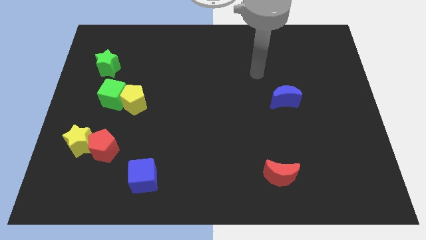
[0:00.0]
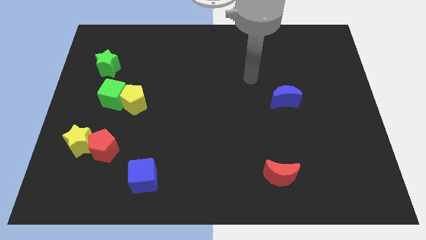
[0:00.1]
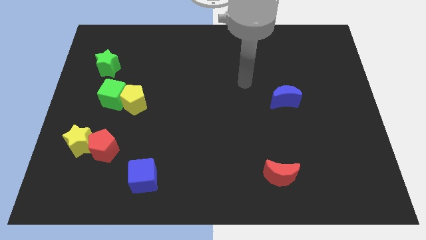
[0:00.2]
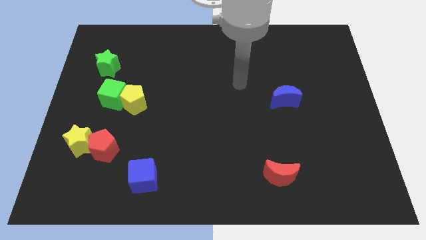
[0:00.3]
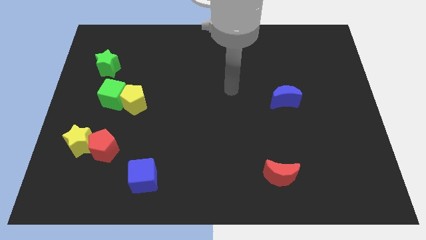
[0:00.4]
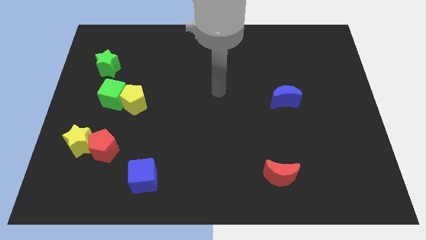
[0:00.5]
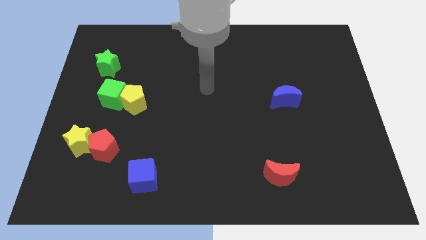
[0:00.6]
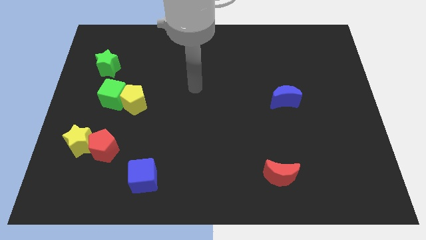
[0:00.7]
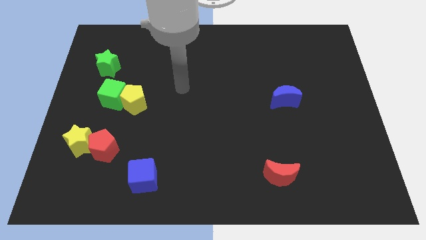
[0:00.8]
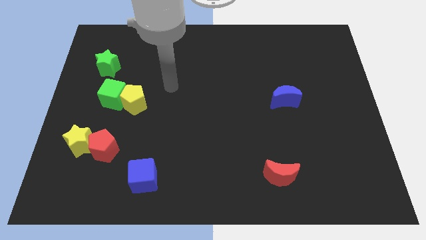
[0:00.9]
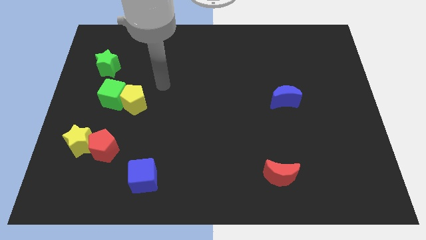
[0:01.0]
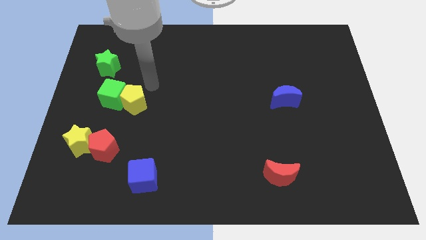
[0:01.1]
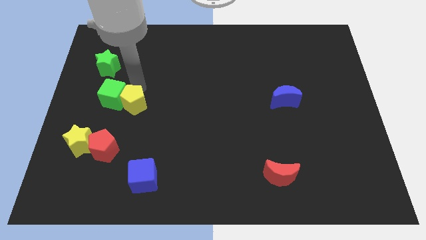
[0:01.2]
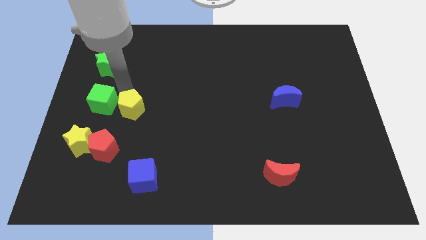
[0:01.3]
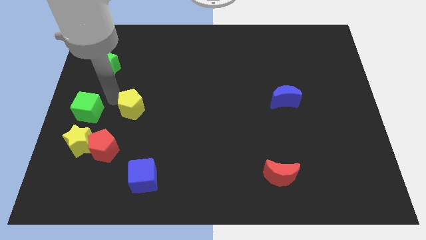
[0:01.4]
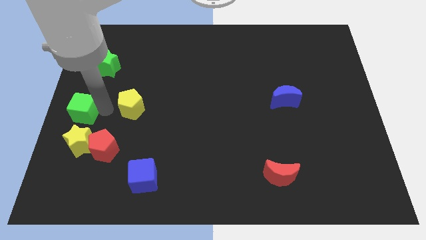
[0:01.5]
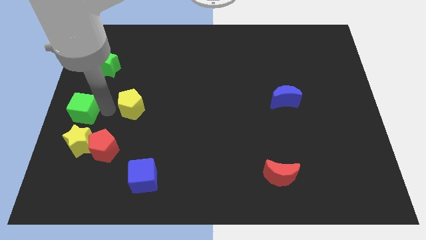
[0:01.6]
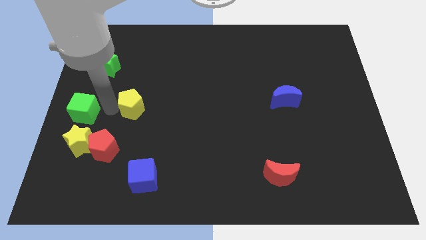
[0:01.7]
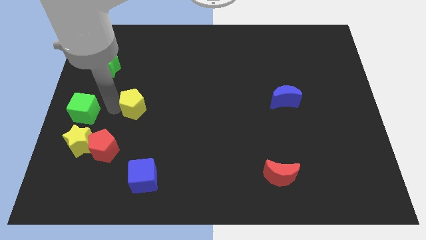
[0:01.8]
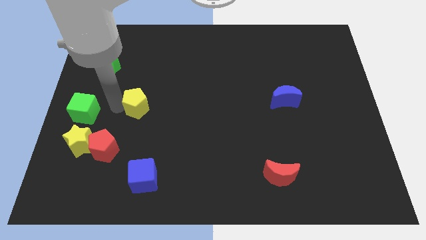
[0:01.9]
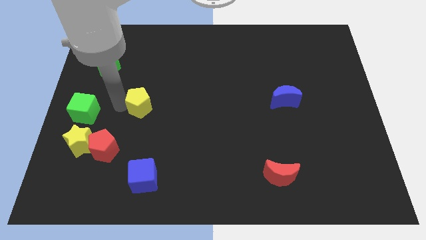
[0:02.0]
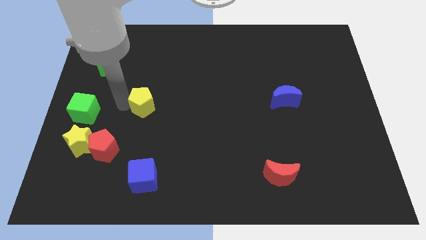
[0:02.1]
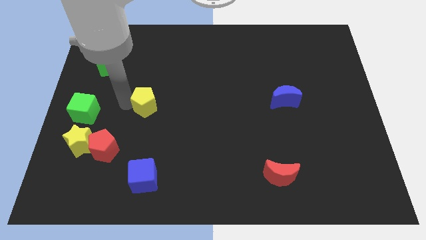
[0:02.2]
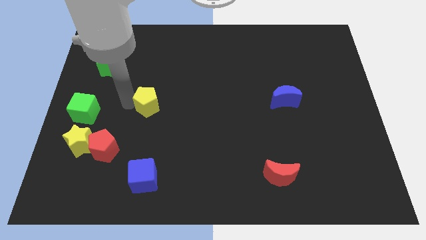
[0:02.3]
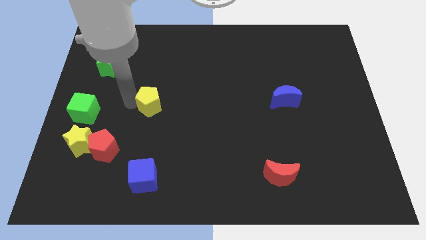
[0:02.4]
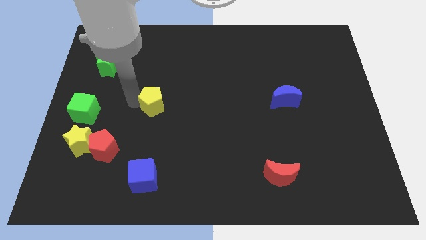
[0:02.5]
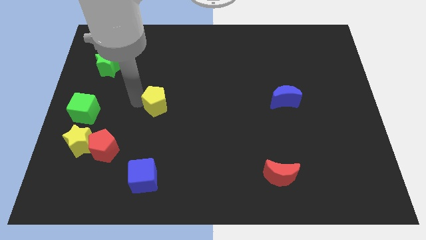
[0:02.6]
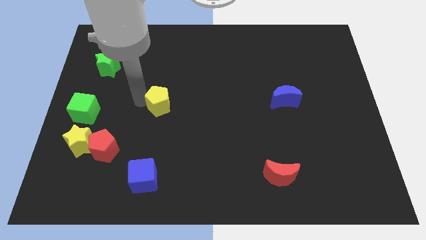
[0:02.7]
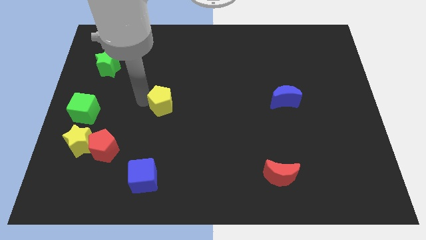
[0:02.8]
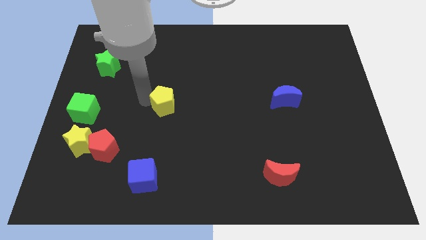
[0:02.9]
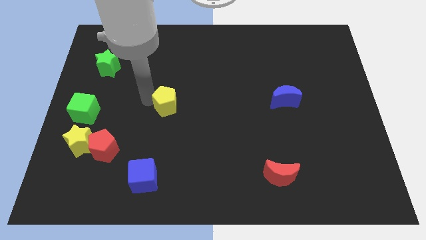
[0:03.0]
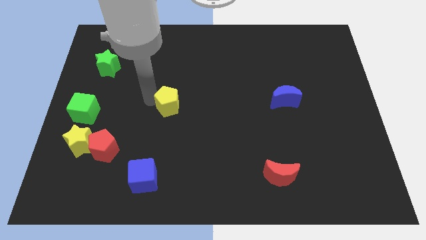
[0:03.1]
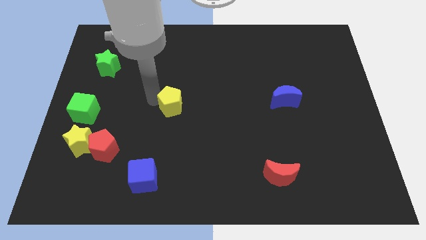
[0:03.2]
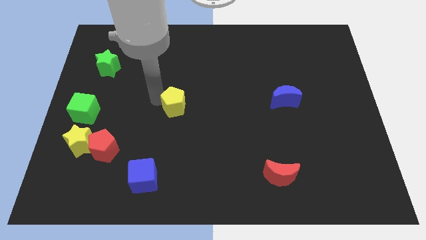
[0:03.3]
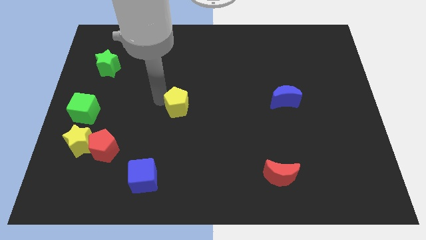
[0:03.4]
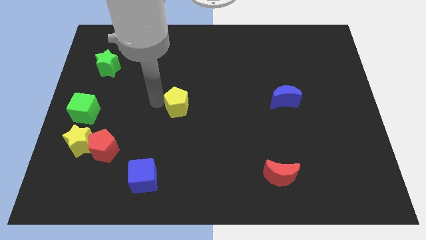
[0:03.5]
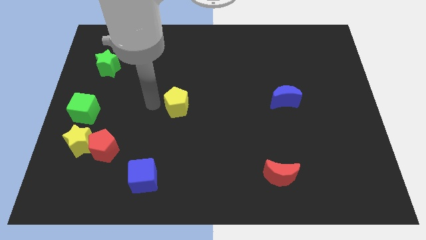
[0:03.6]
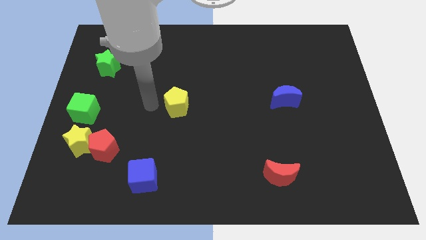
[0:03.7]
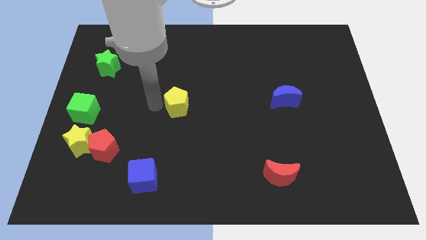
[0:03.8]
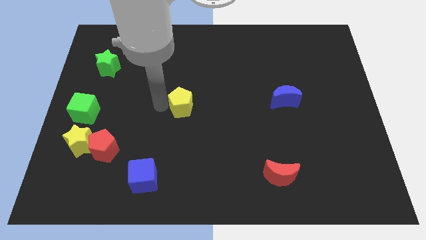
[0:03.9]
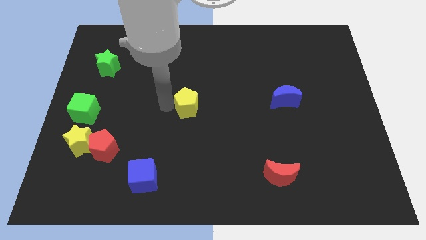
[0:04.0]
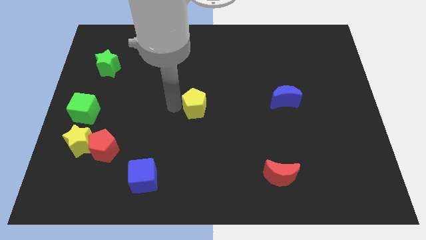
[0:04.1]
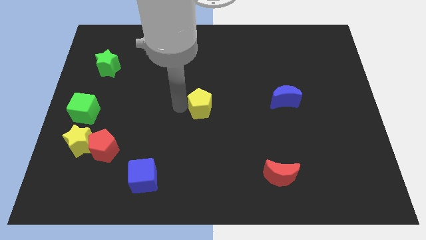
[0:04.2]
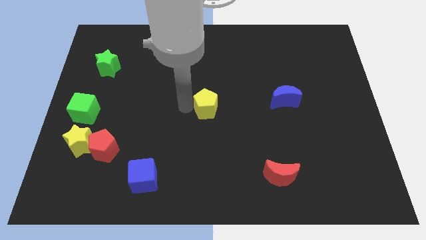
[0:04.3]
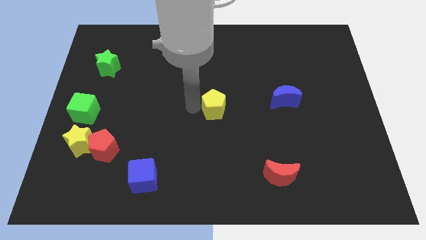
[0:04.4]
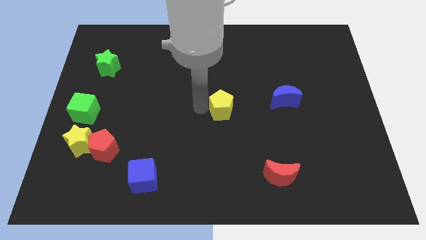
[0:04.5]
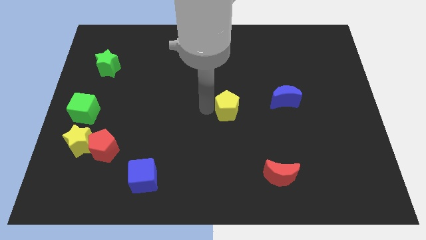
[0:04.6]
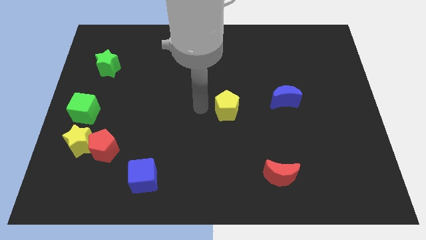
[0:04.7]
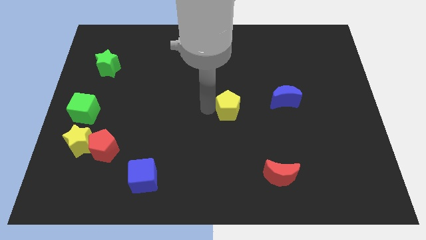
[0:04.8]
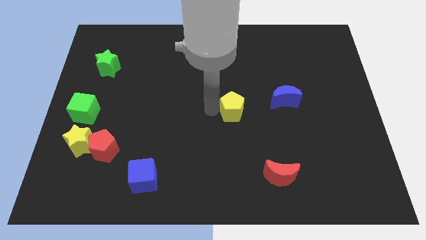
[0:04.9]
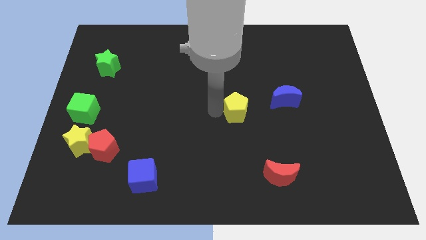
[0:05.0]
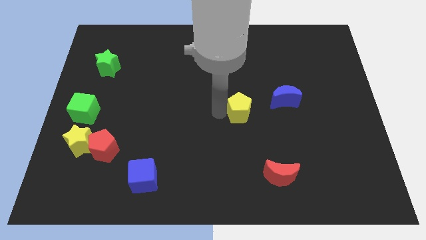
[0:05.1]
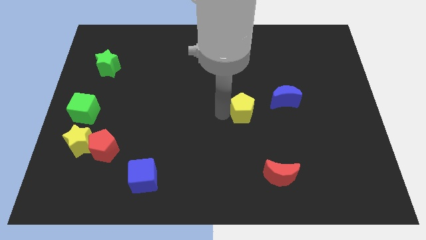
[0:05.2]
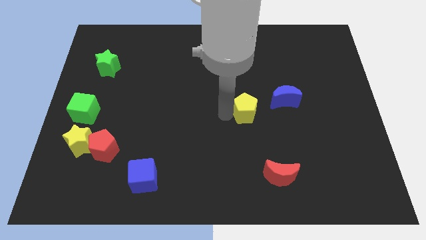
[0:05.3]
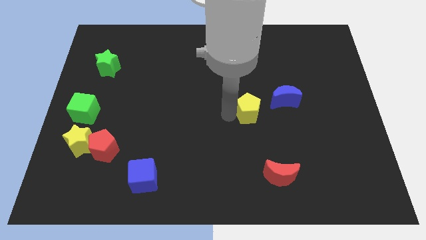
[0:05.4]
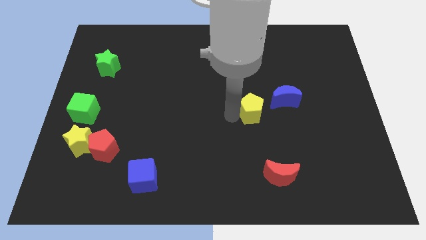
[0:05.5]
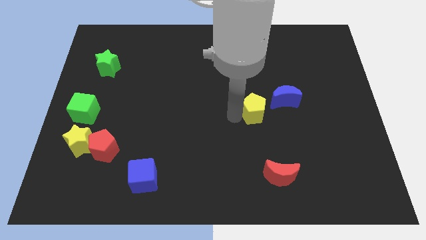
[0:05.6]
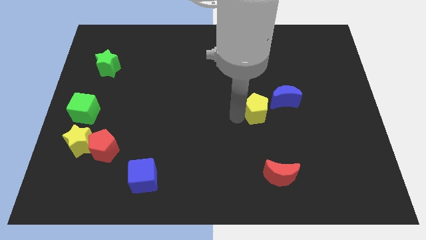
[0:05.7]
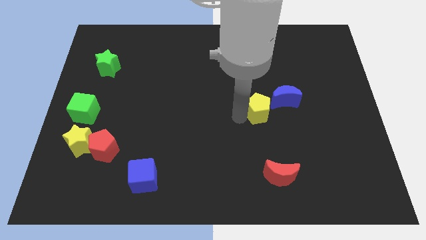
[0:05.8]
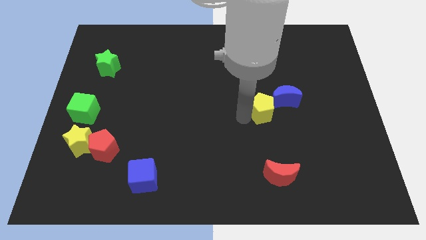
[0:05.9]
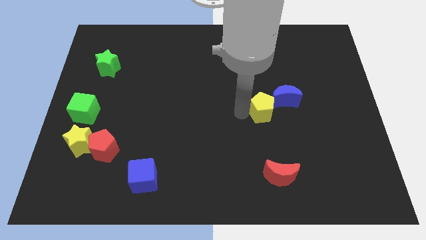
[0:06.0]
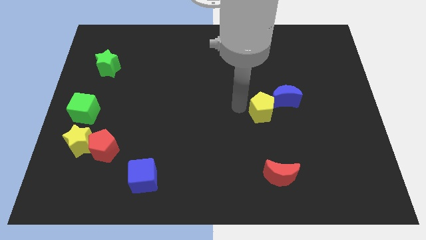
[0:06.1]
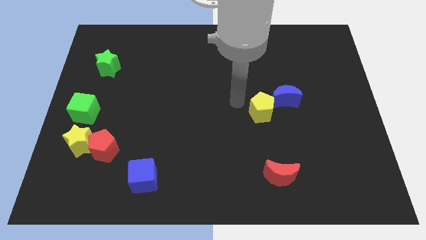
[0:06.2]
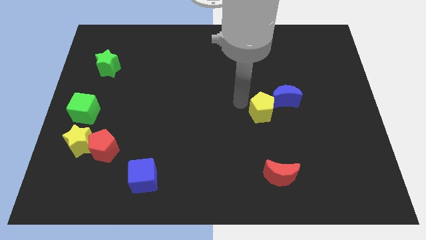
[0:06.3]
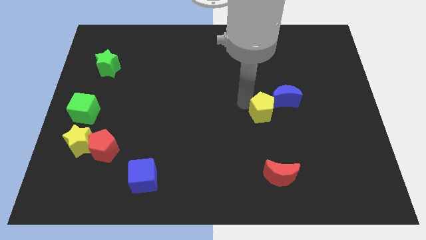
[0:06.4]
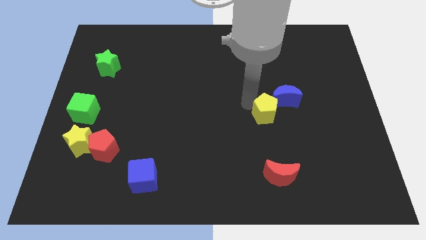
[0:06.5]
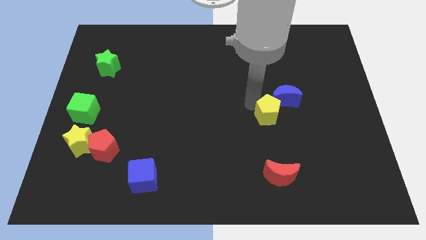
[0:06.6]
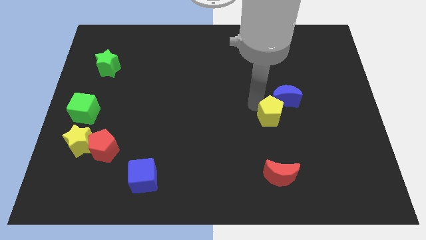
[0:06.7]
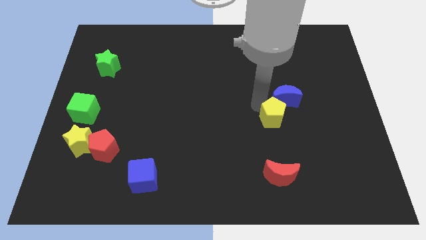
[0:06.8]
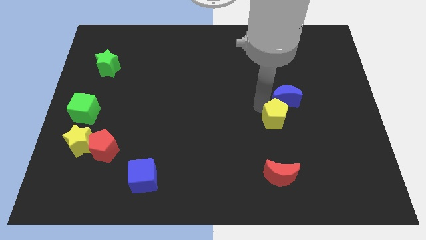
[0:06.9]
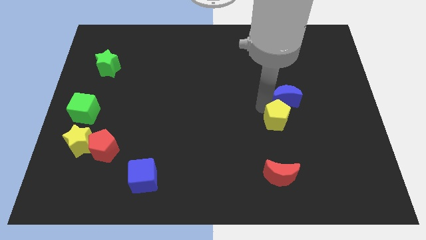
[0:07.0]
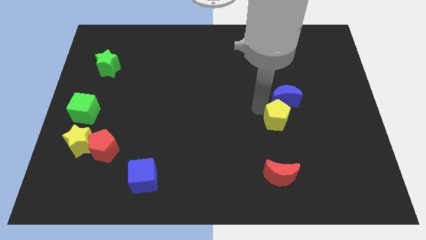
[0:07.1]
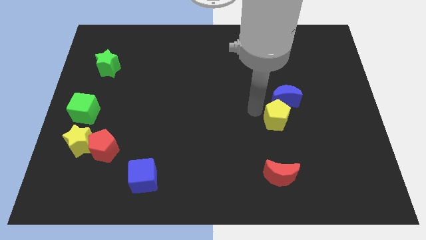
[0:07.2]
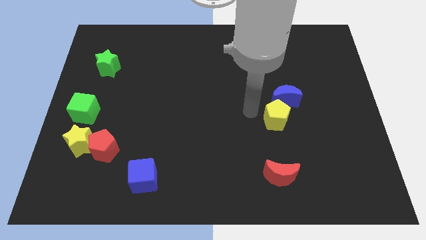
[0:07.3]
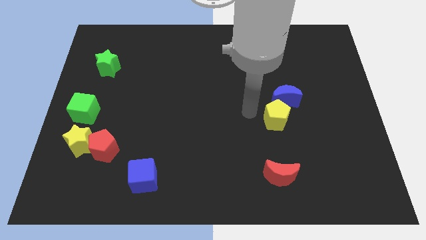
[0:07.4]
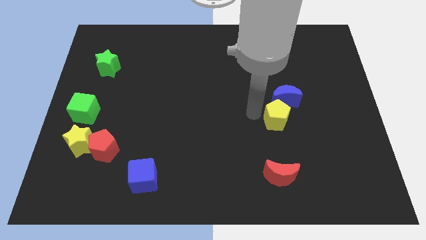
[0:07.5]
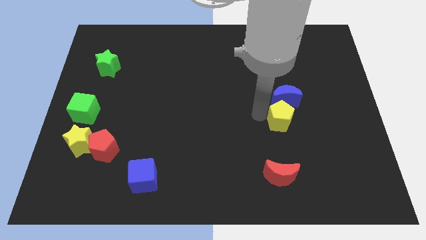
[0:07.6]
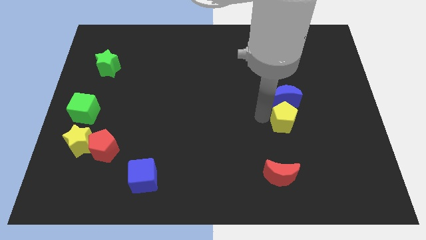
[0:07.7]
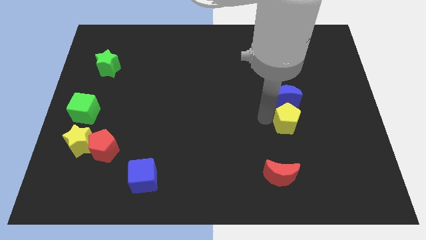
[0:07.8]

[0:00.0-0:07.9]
push the yellow pentagon to the bottom right of the blue moon
